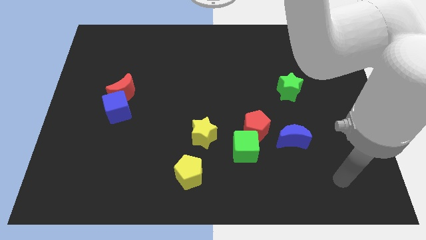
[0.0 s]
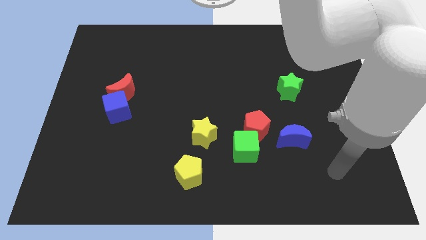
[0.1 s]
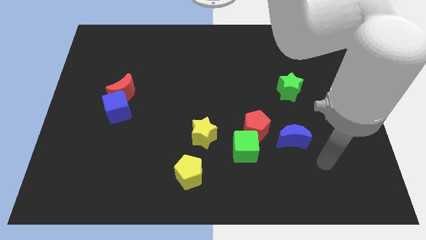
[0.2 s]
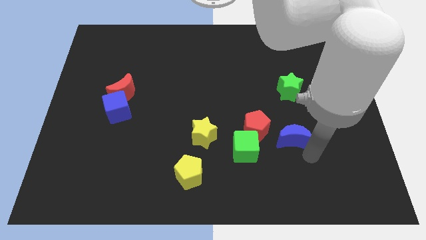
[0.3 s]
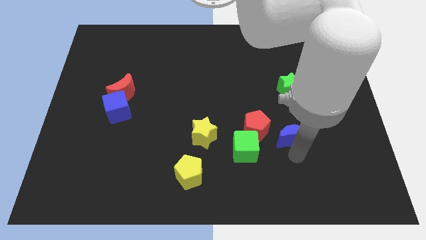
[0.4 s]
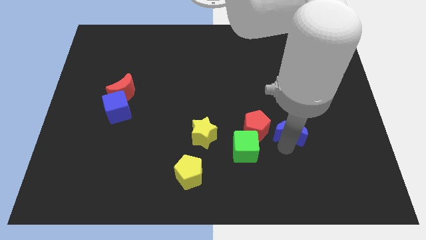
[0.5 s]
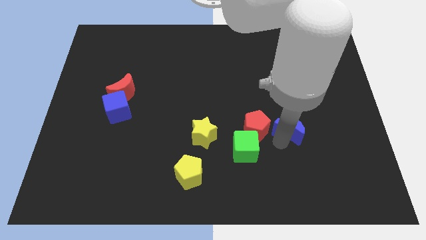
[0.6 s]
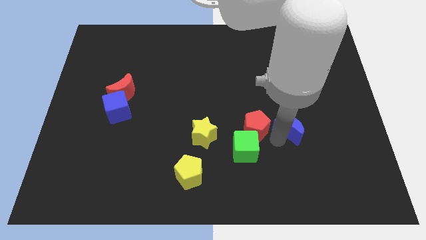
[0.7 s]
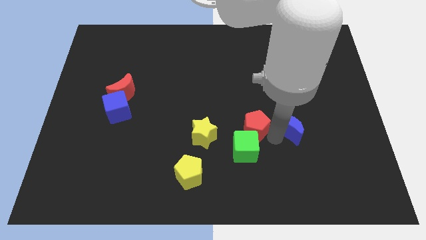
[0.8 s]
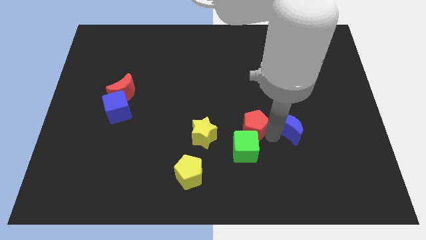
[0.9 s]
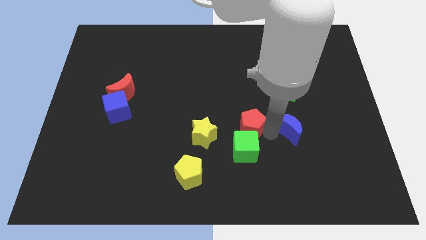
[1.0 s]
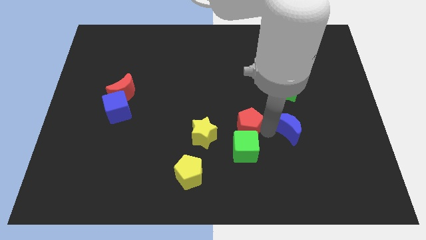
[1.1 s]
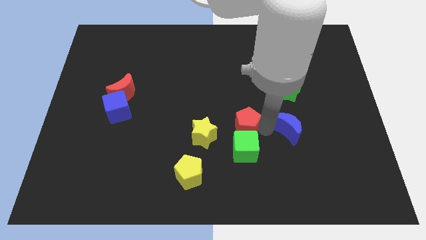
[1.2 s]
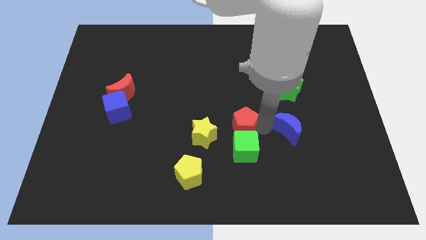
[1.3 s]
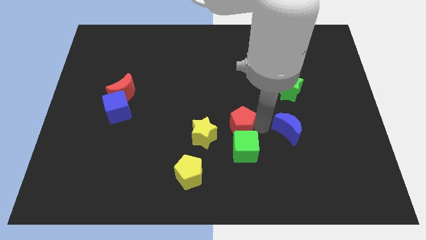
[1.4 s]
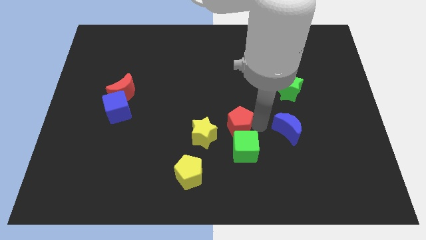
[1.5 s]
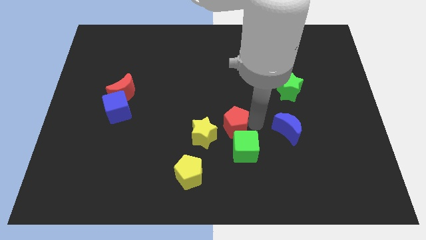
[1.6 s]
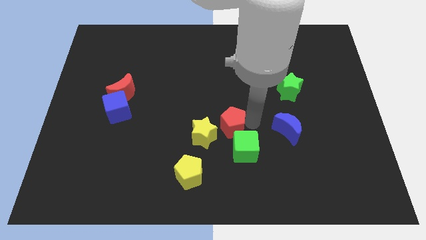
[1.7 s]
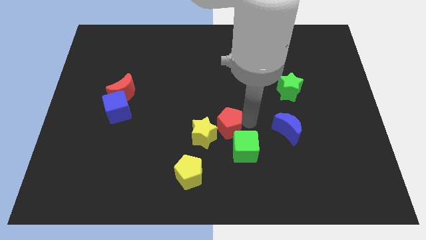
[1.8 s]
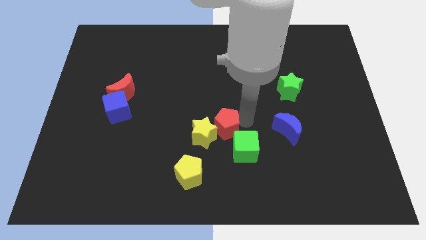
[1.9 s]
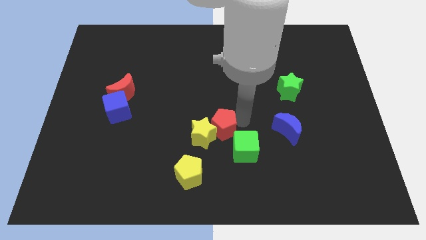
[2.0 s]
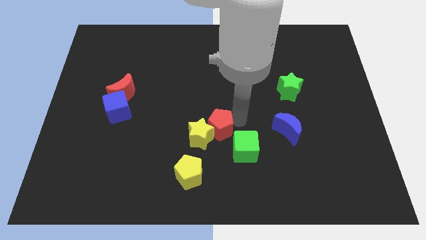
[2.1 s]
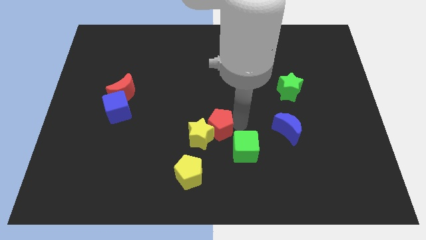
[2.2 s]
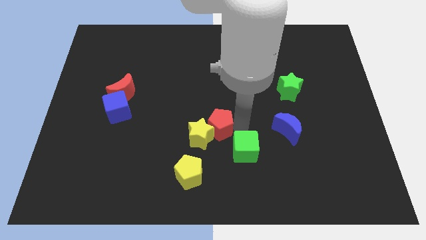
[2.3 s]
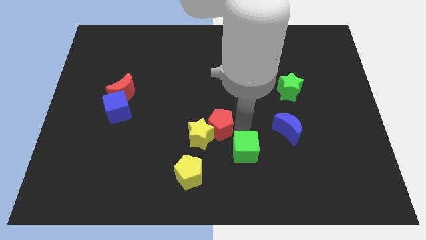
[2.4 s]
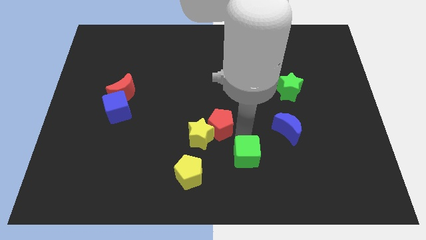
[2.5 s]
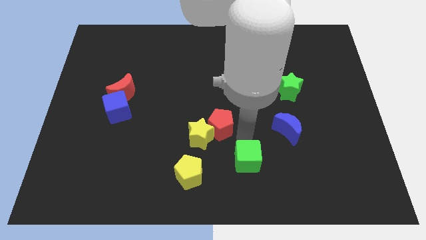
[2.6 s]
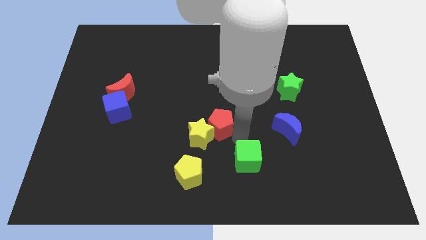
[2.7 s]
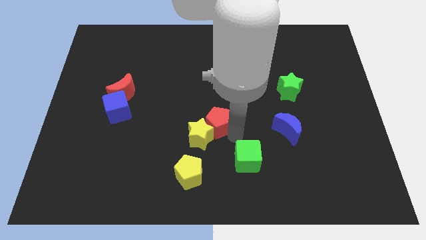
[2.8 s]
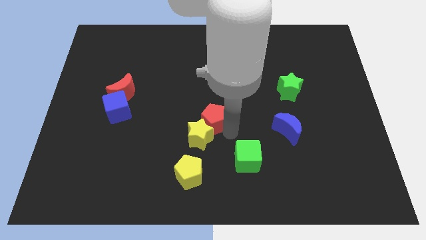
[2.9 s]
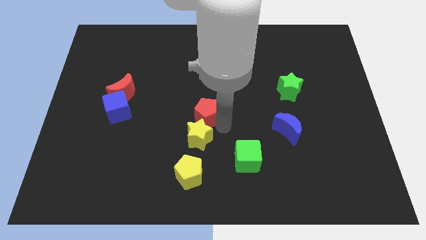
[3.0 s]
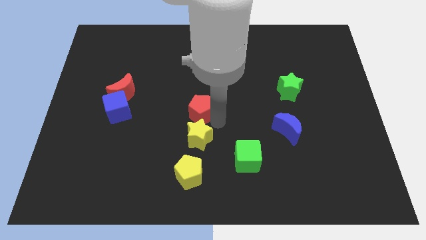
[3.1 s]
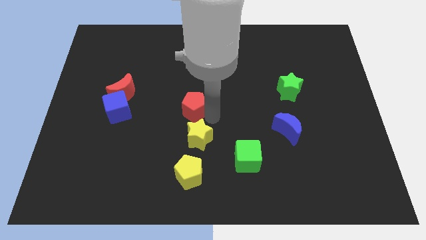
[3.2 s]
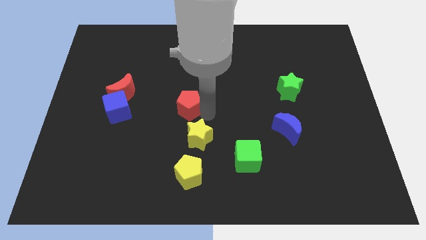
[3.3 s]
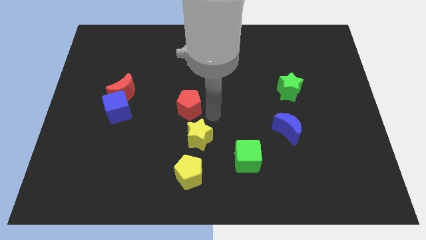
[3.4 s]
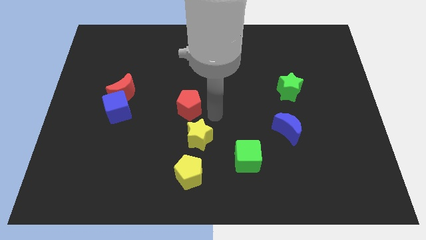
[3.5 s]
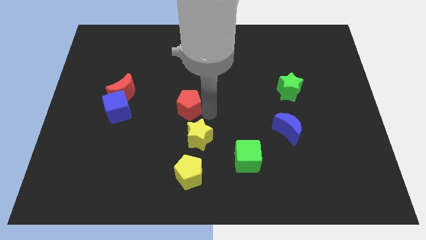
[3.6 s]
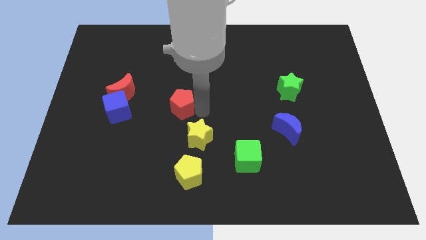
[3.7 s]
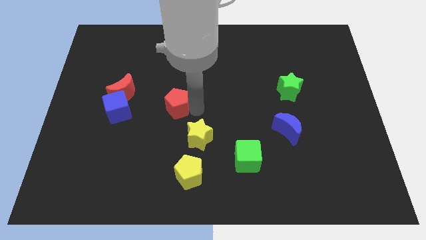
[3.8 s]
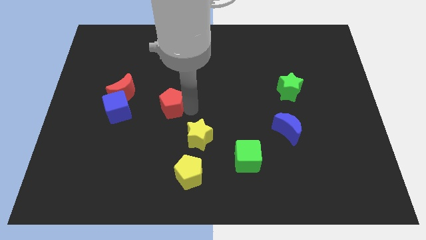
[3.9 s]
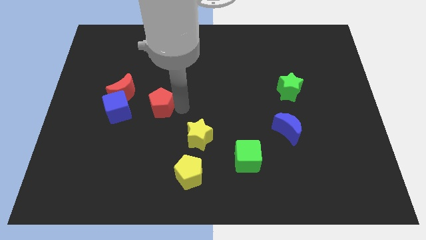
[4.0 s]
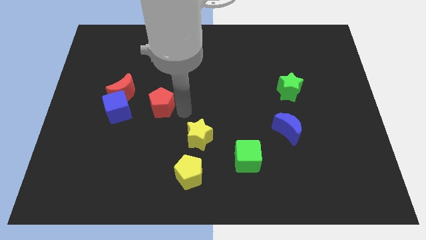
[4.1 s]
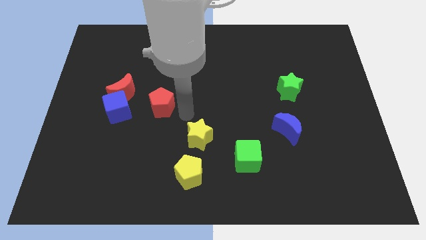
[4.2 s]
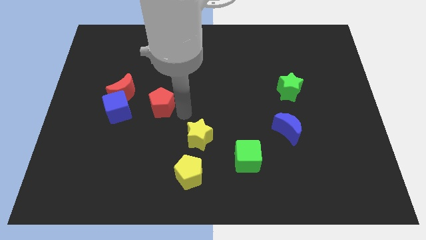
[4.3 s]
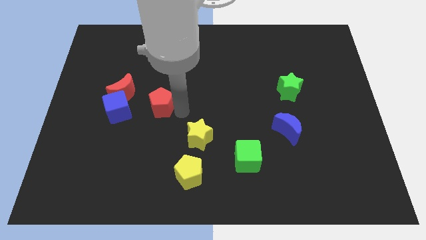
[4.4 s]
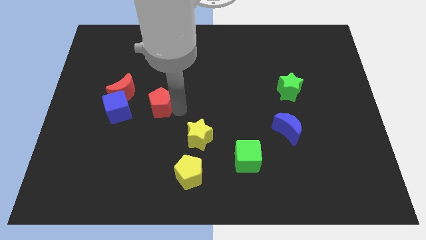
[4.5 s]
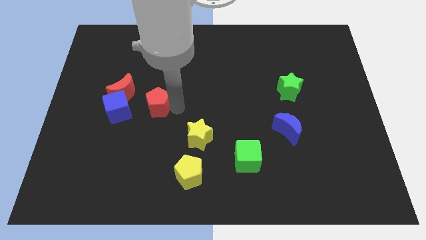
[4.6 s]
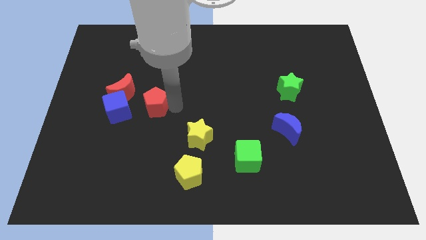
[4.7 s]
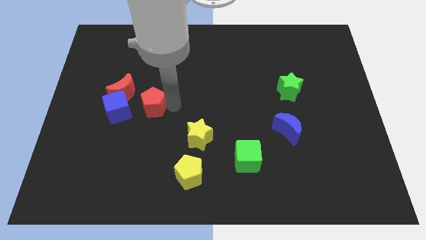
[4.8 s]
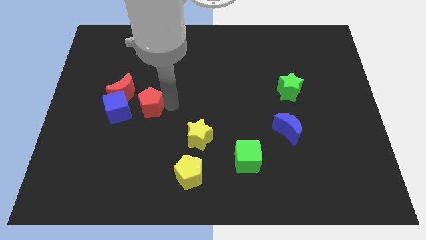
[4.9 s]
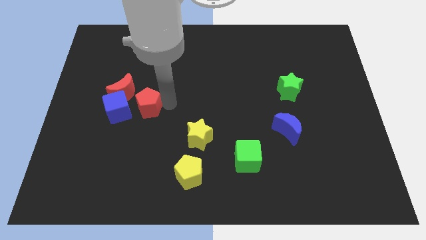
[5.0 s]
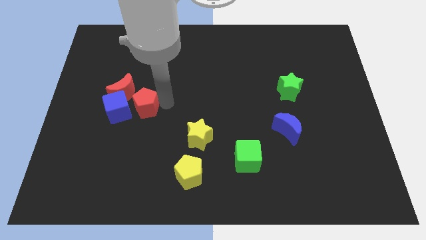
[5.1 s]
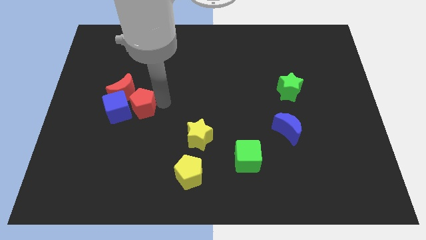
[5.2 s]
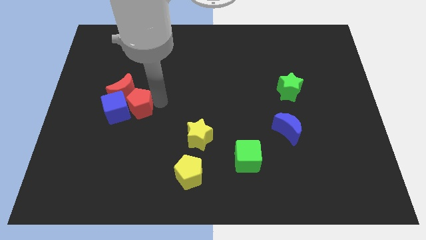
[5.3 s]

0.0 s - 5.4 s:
put the red pentagon towards the red moon

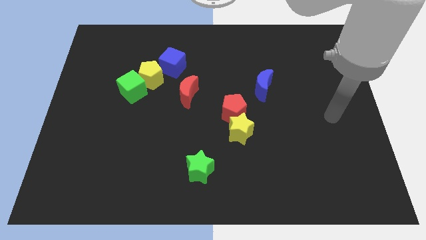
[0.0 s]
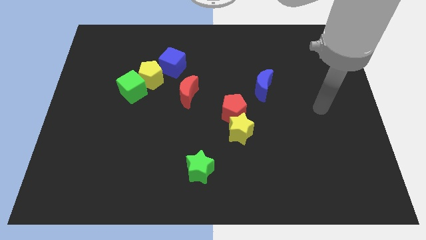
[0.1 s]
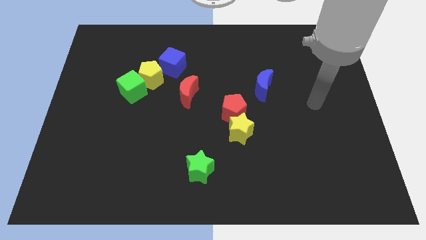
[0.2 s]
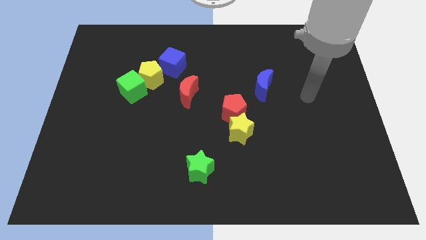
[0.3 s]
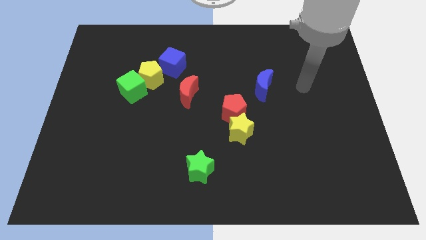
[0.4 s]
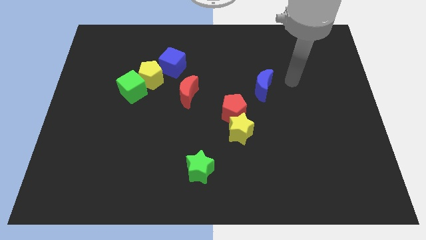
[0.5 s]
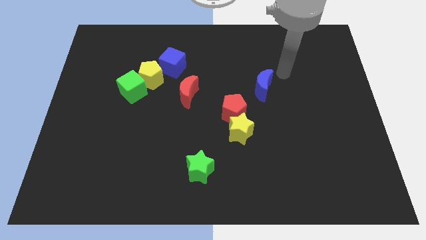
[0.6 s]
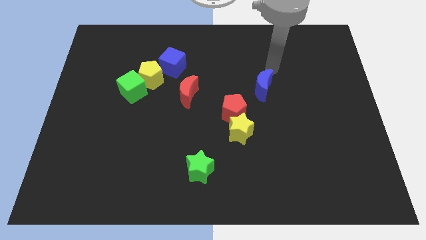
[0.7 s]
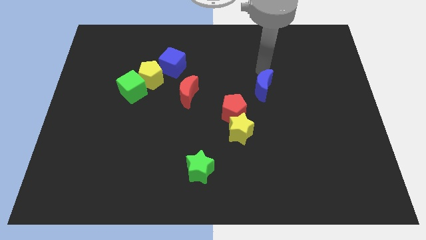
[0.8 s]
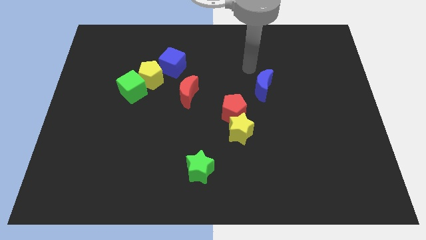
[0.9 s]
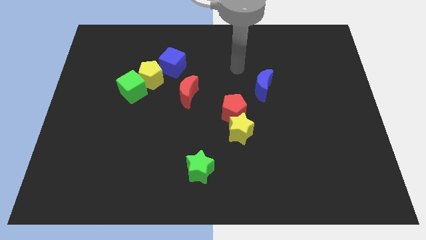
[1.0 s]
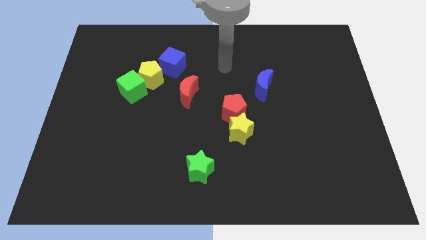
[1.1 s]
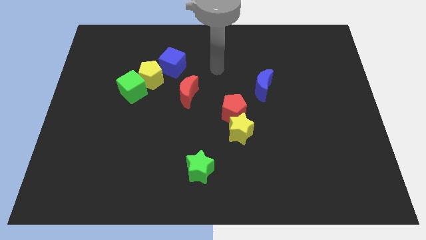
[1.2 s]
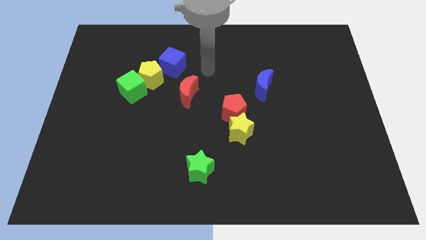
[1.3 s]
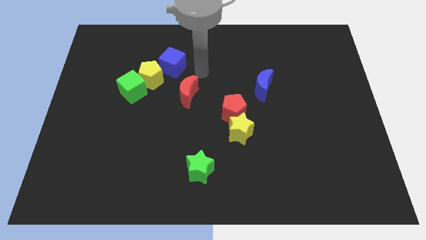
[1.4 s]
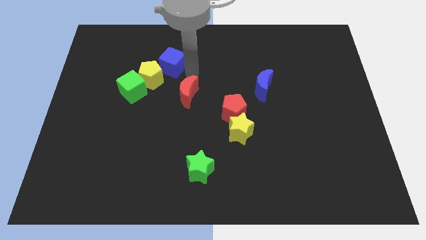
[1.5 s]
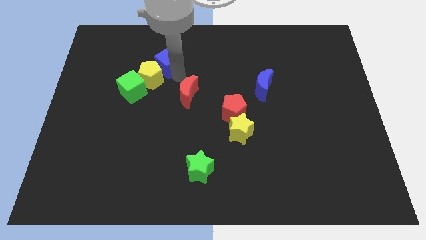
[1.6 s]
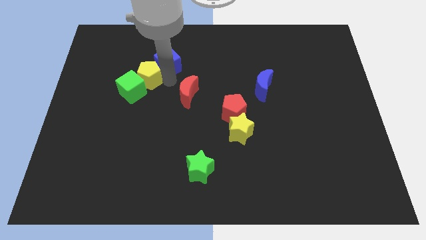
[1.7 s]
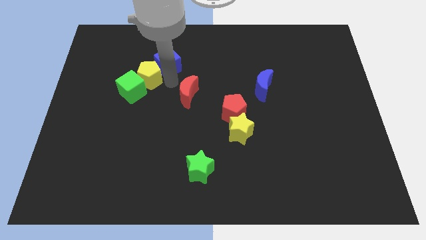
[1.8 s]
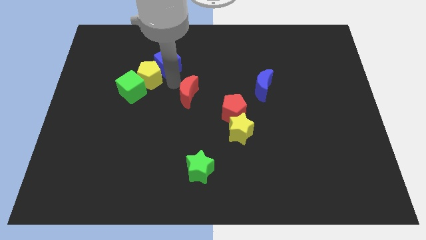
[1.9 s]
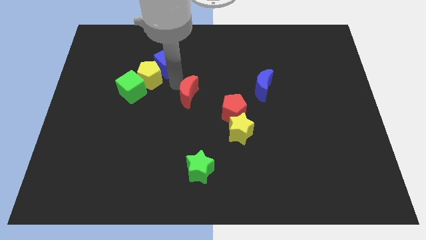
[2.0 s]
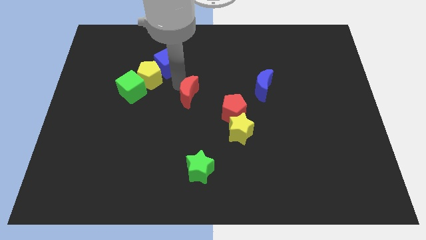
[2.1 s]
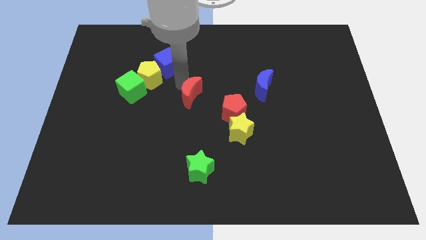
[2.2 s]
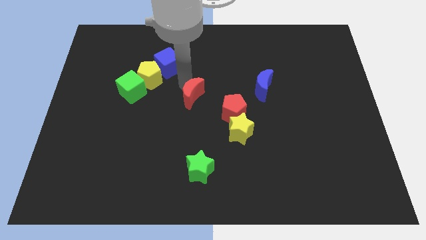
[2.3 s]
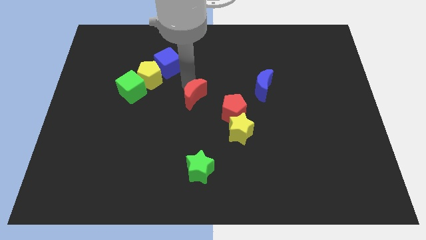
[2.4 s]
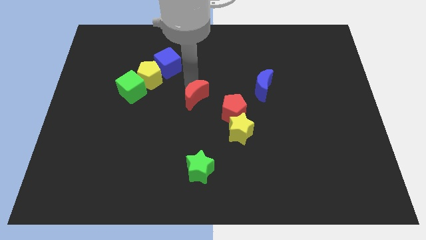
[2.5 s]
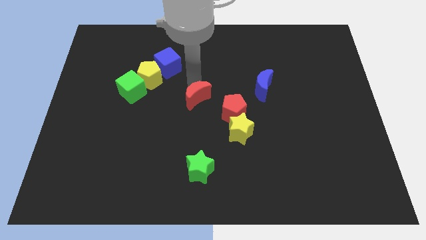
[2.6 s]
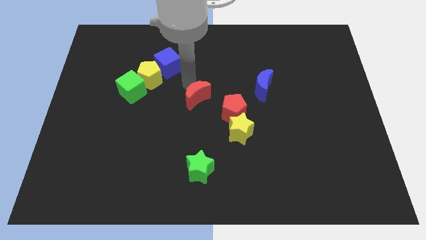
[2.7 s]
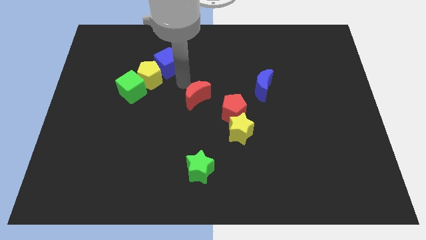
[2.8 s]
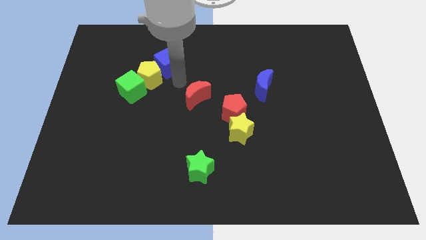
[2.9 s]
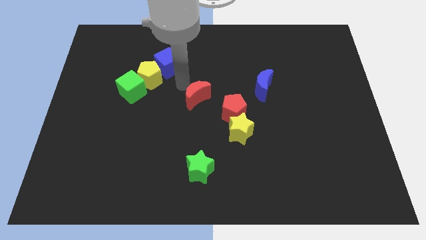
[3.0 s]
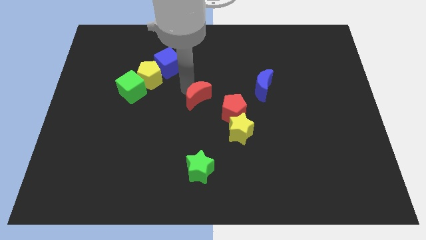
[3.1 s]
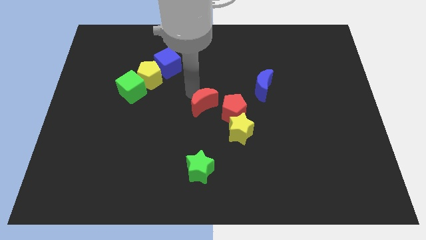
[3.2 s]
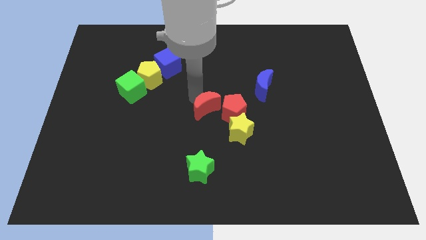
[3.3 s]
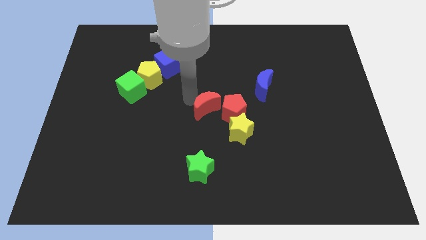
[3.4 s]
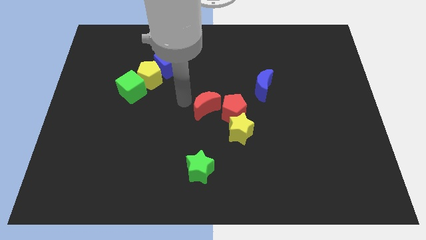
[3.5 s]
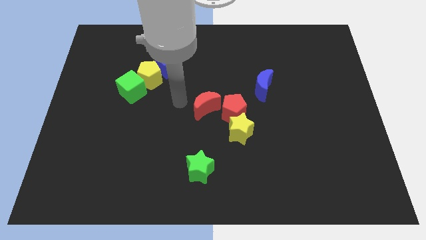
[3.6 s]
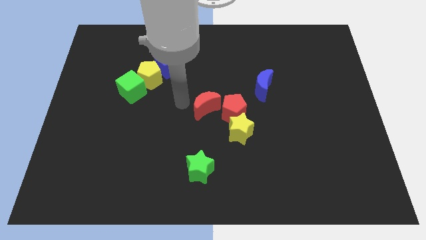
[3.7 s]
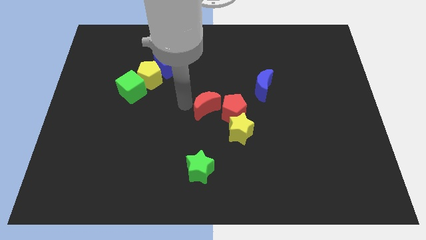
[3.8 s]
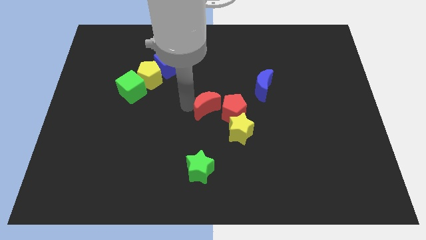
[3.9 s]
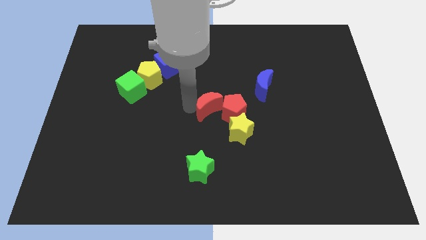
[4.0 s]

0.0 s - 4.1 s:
put the red moon towards the red pentagon
